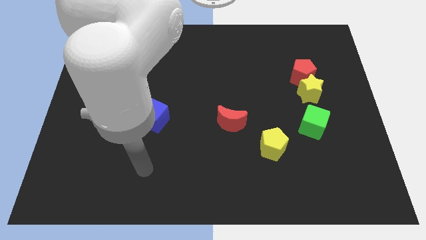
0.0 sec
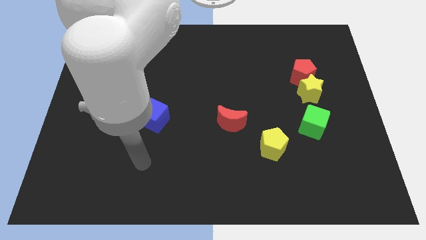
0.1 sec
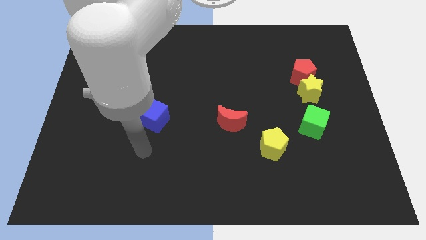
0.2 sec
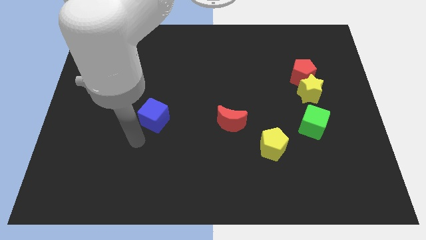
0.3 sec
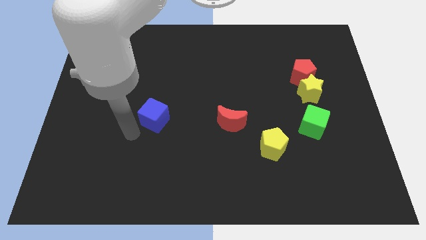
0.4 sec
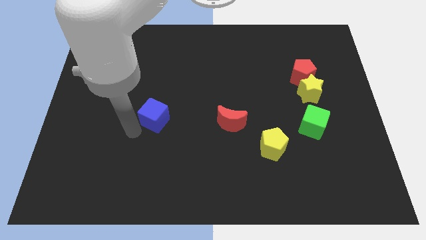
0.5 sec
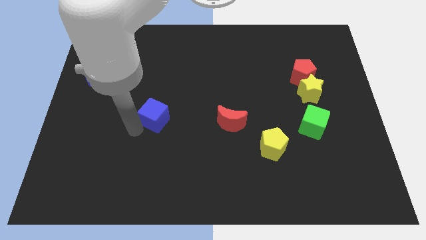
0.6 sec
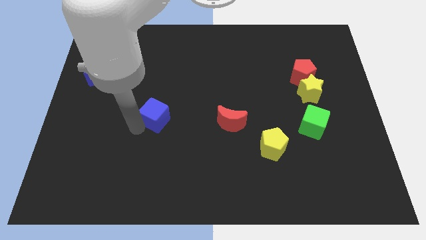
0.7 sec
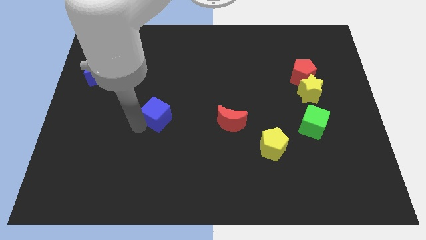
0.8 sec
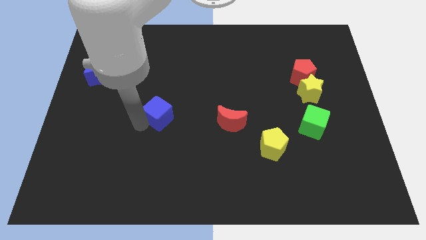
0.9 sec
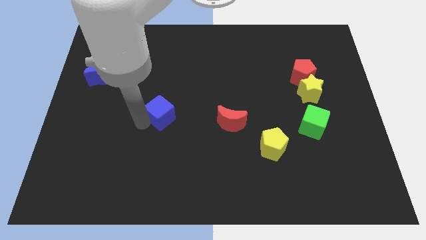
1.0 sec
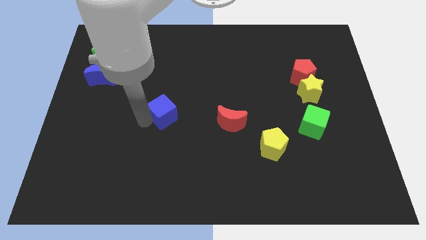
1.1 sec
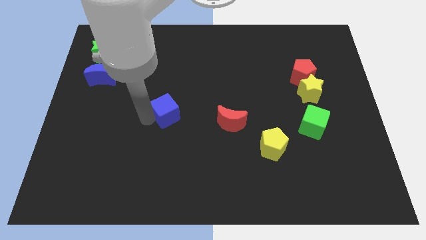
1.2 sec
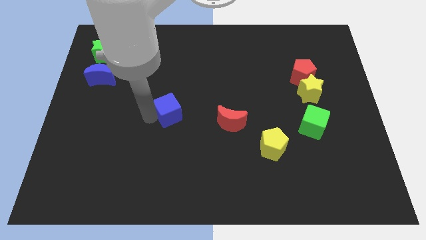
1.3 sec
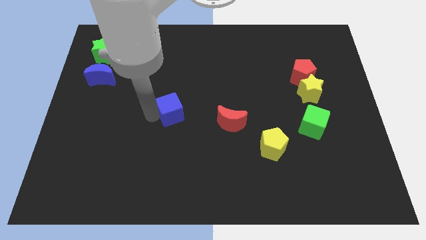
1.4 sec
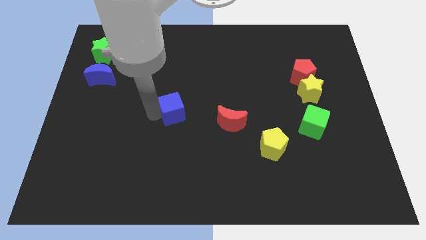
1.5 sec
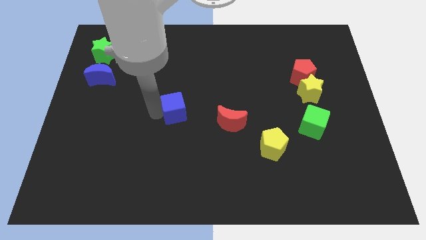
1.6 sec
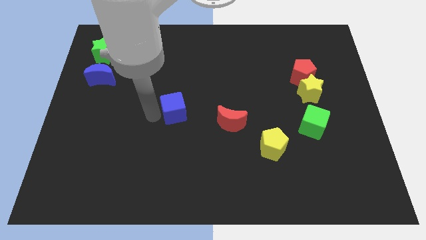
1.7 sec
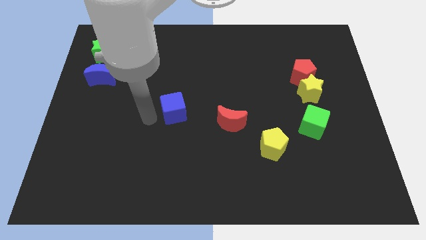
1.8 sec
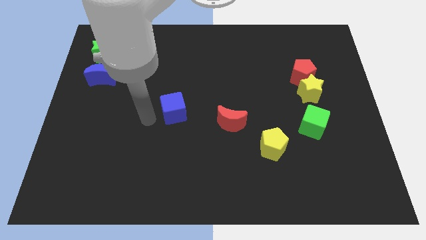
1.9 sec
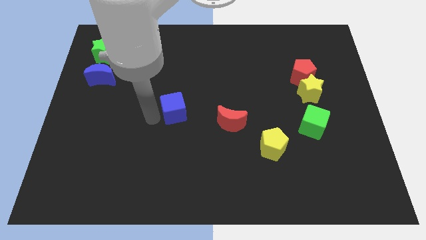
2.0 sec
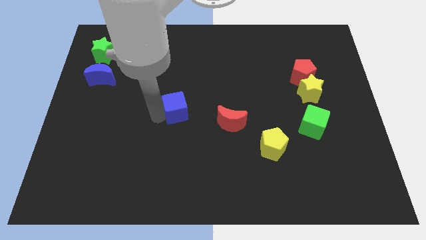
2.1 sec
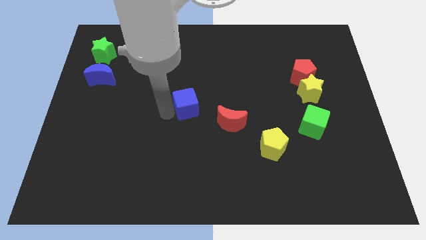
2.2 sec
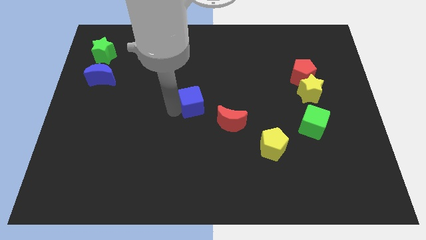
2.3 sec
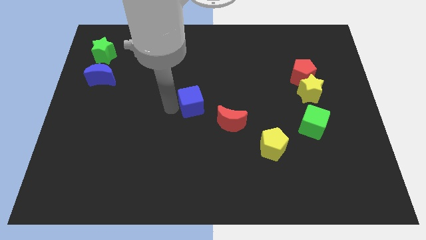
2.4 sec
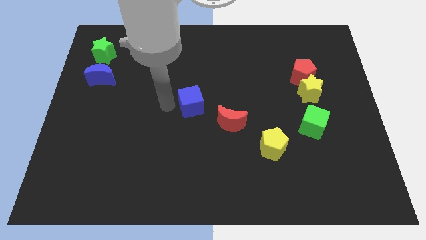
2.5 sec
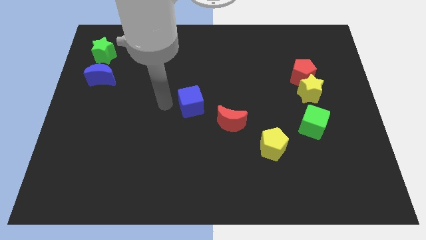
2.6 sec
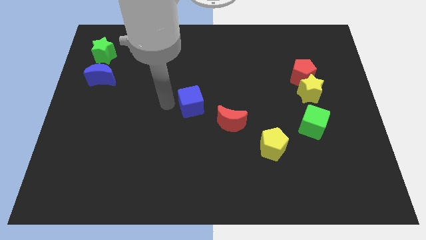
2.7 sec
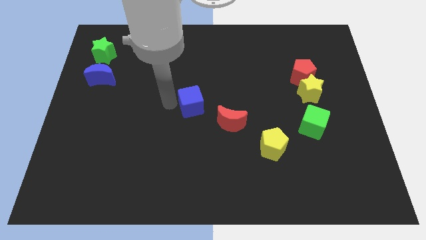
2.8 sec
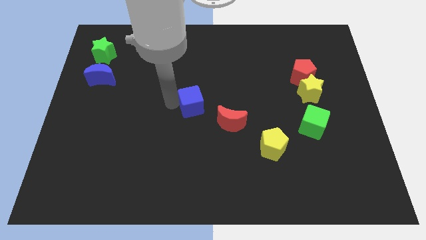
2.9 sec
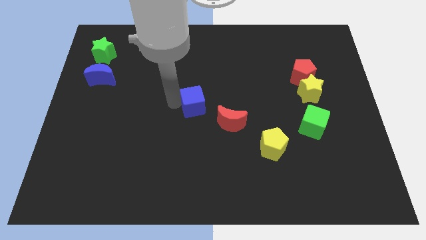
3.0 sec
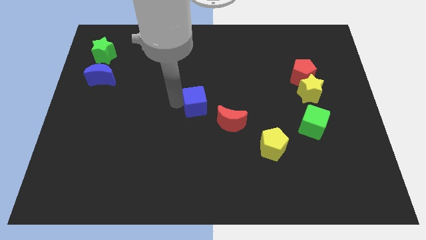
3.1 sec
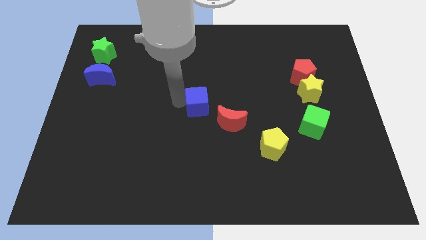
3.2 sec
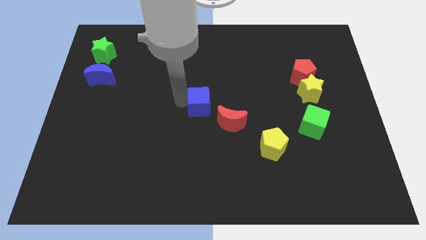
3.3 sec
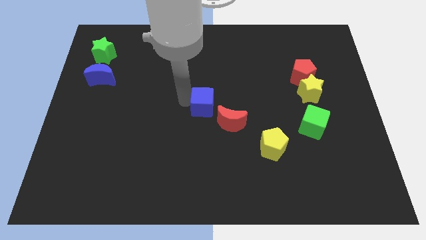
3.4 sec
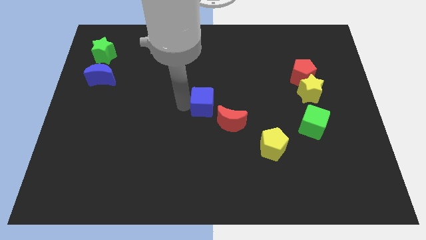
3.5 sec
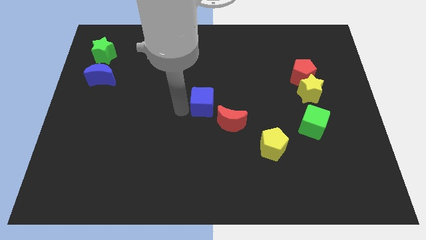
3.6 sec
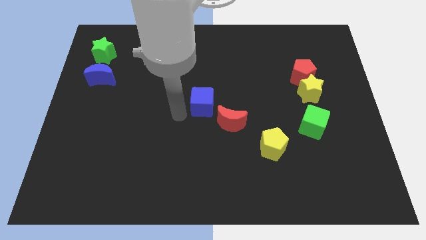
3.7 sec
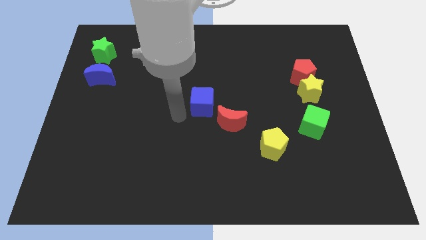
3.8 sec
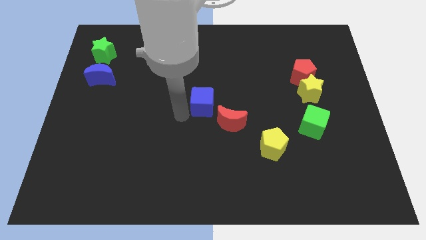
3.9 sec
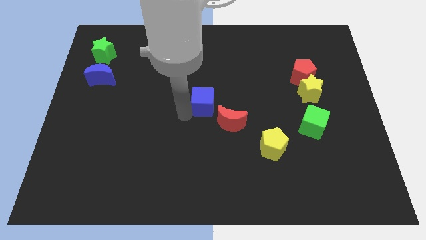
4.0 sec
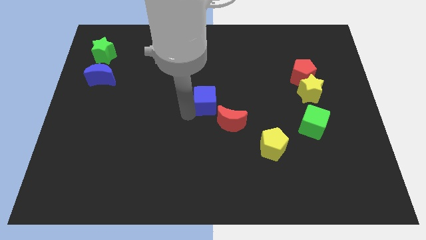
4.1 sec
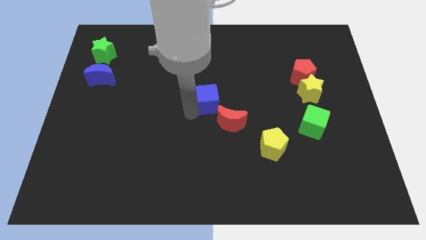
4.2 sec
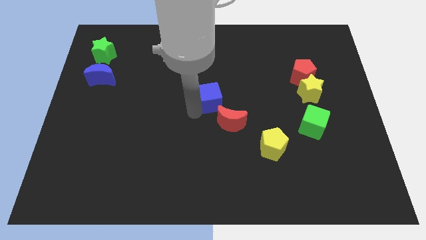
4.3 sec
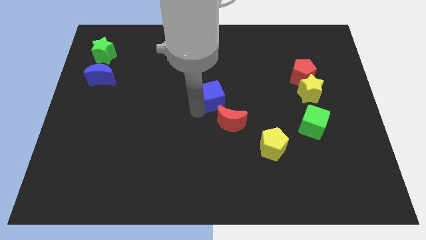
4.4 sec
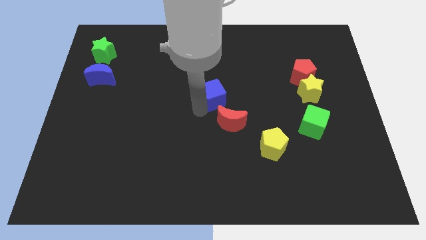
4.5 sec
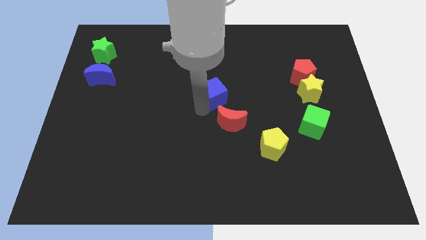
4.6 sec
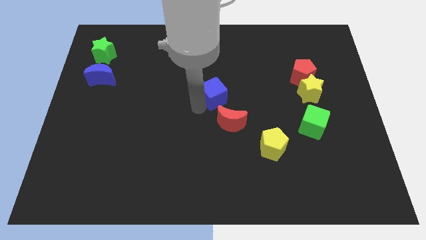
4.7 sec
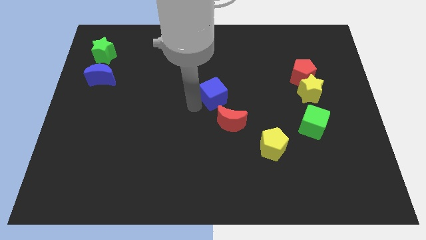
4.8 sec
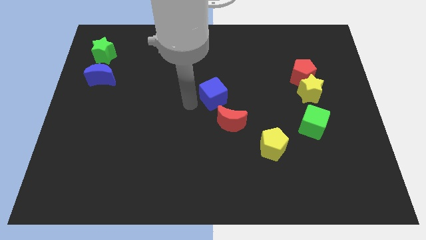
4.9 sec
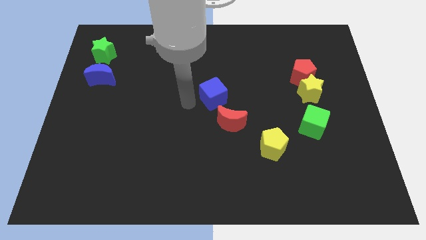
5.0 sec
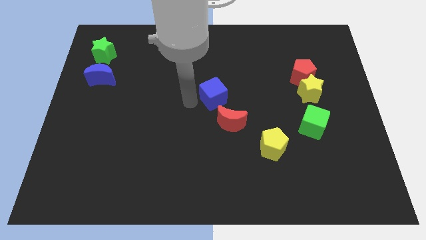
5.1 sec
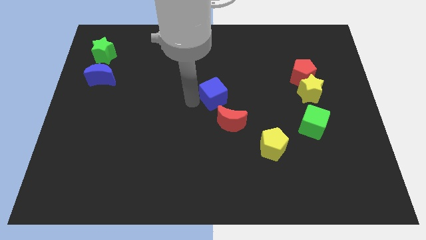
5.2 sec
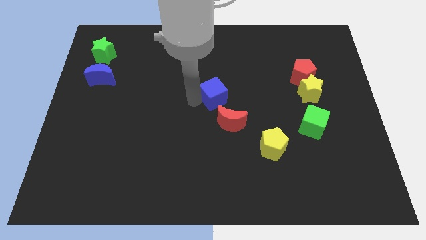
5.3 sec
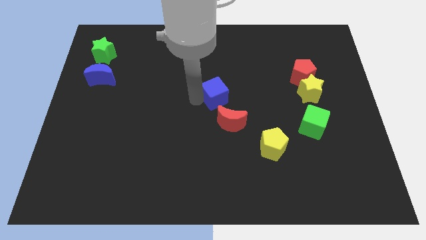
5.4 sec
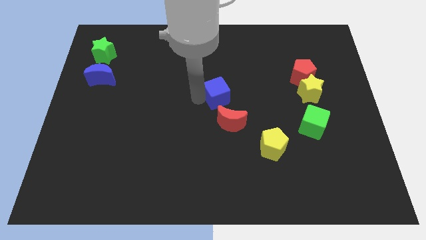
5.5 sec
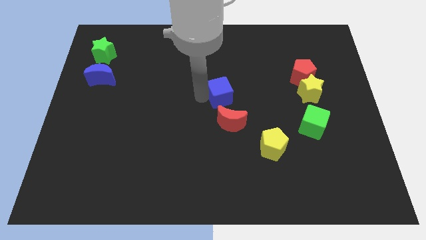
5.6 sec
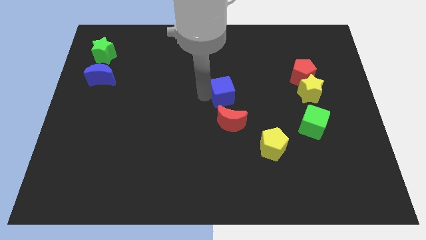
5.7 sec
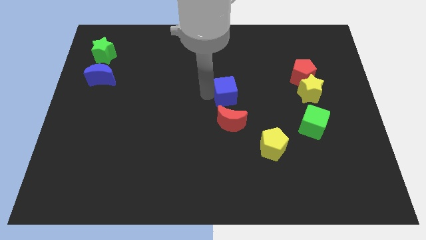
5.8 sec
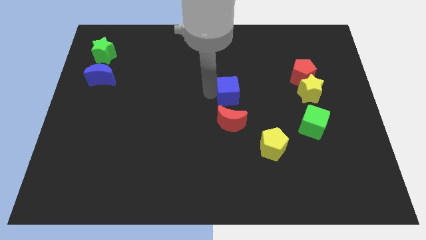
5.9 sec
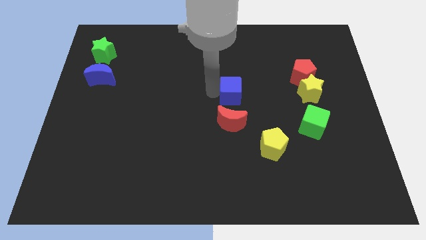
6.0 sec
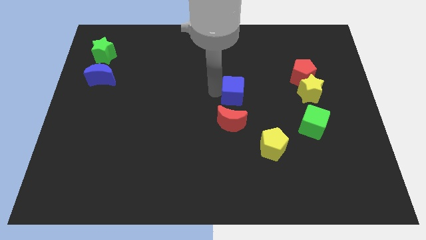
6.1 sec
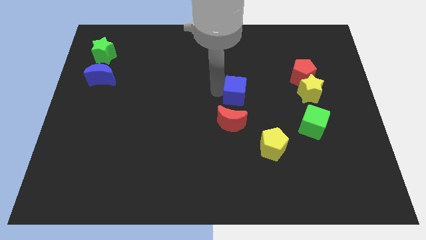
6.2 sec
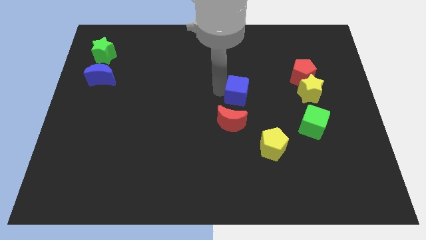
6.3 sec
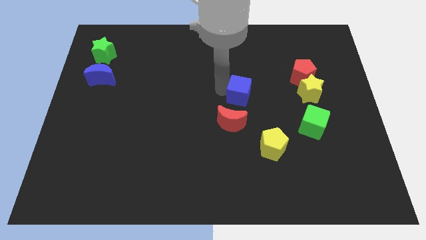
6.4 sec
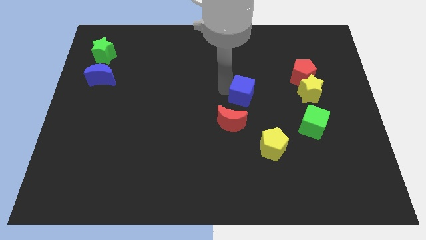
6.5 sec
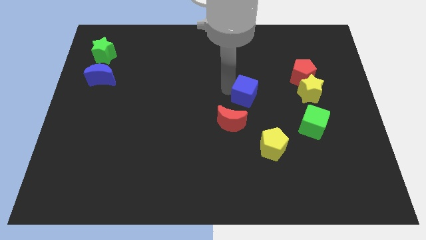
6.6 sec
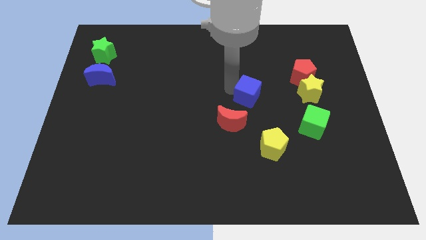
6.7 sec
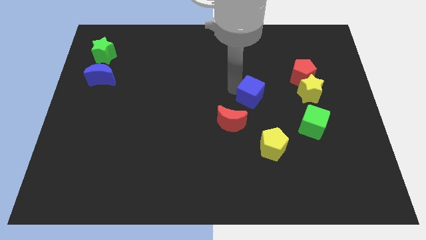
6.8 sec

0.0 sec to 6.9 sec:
move the blue cube to the right

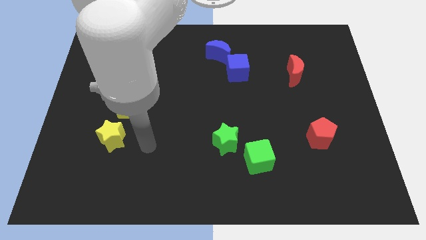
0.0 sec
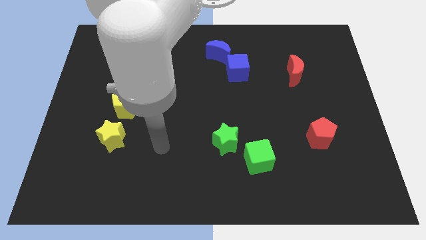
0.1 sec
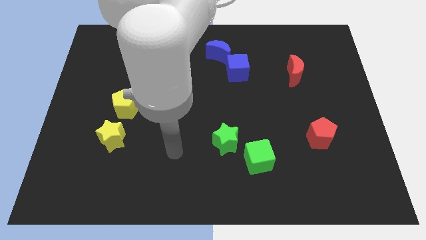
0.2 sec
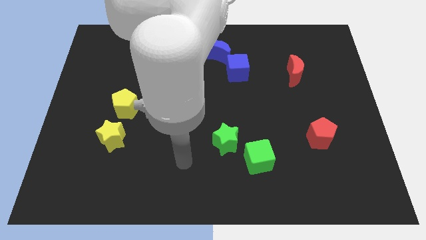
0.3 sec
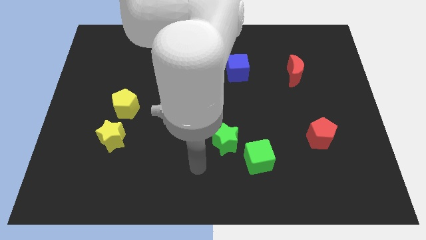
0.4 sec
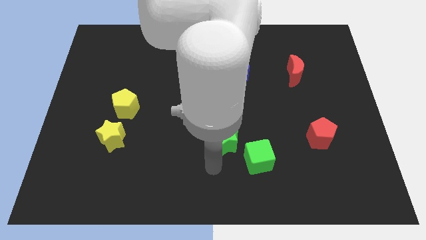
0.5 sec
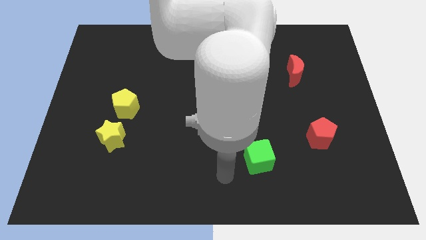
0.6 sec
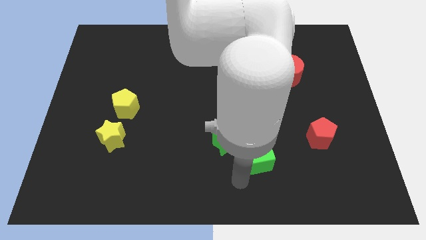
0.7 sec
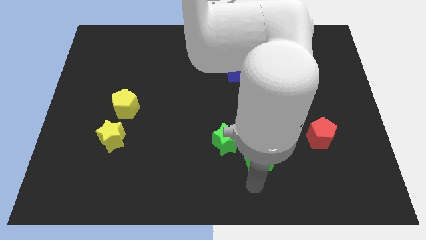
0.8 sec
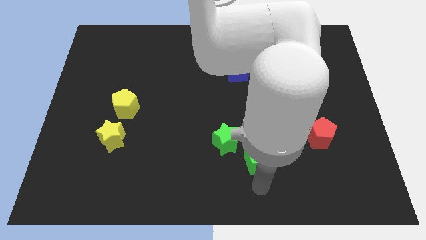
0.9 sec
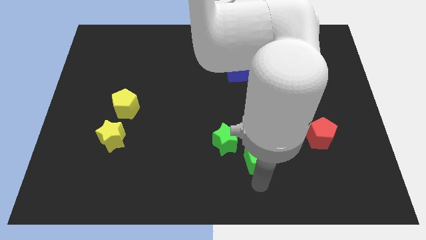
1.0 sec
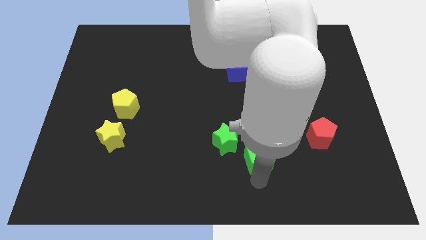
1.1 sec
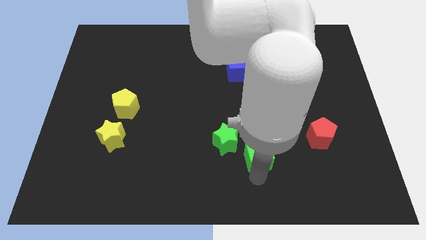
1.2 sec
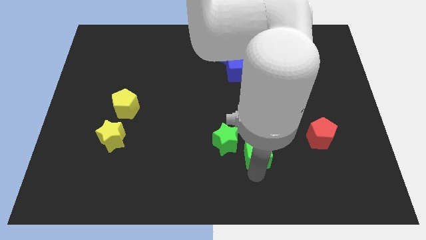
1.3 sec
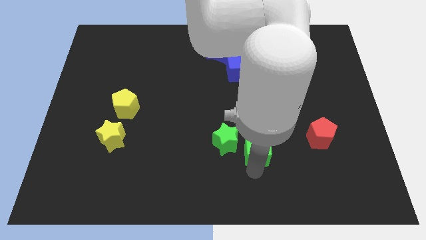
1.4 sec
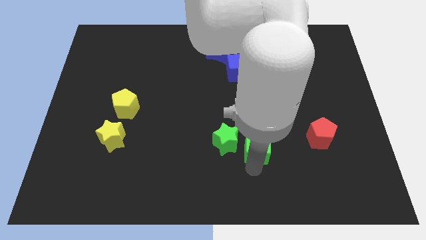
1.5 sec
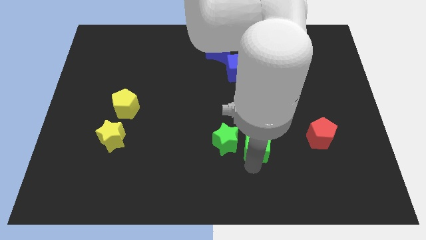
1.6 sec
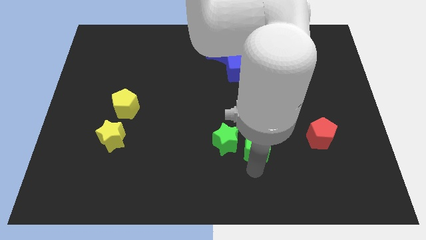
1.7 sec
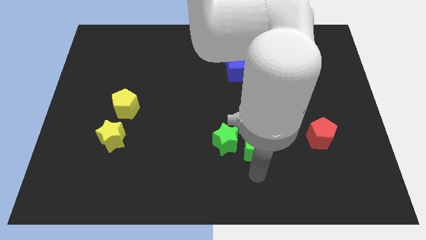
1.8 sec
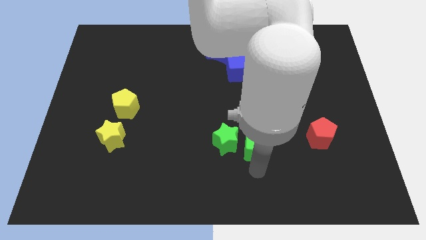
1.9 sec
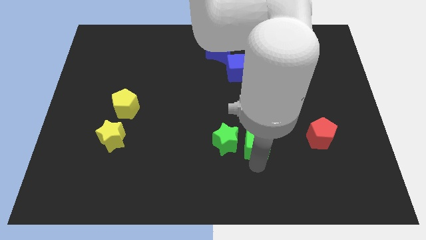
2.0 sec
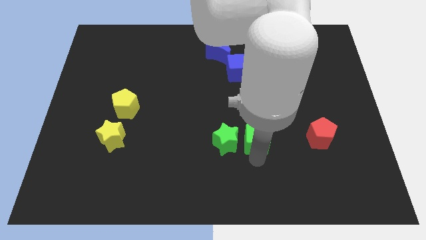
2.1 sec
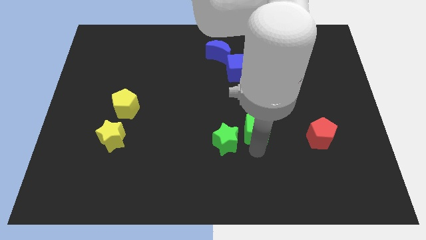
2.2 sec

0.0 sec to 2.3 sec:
move the green cube upwards a bit
